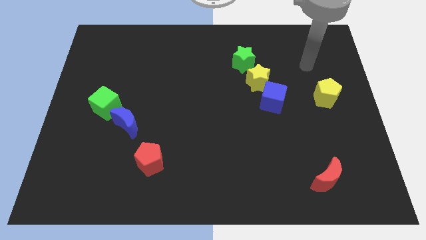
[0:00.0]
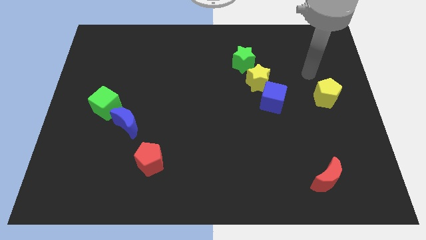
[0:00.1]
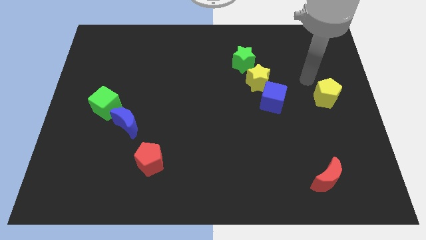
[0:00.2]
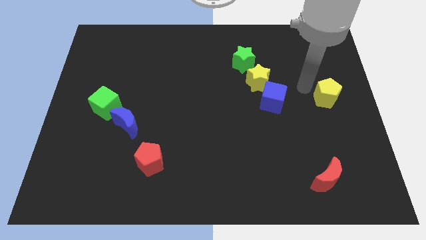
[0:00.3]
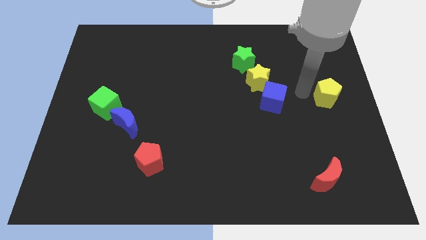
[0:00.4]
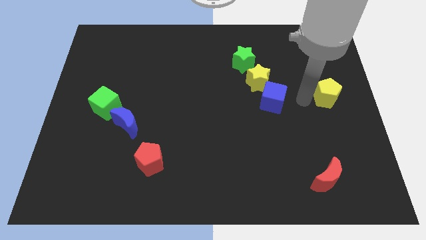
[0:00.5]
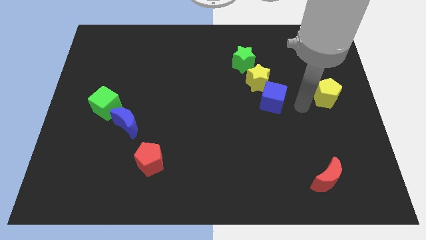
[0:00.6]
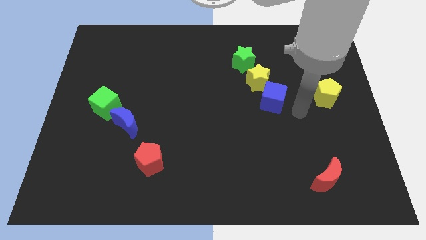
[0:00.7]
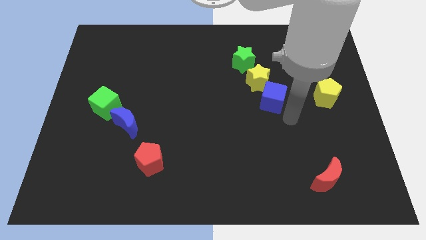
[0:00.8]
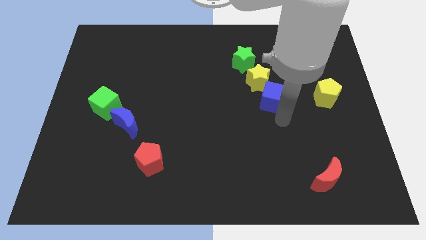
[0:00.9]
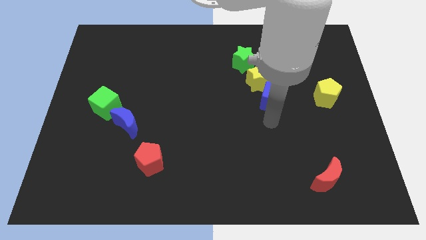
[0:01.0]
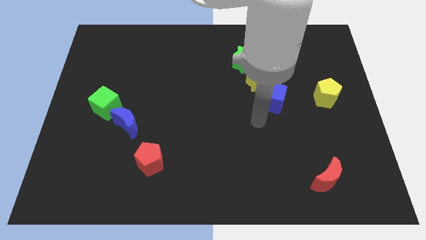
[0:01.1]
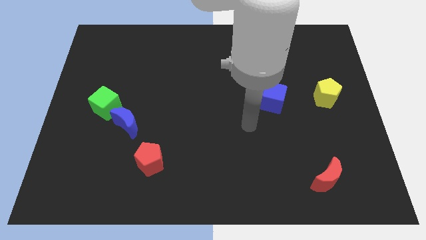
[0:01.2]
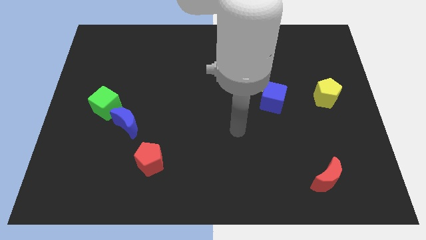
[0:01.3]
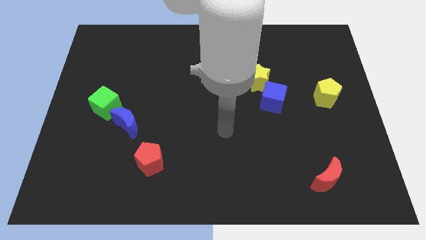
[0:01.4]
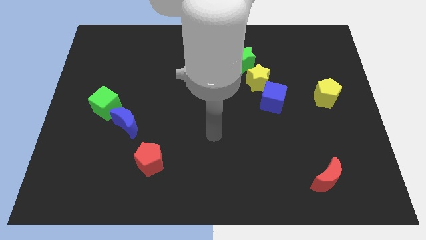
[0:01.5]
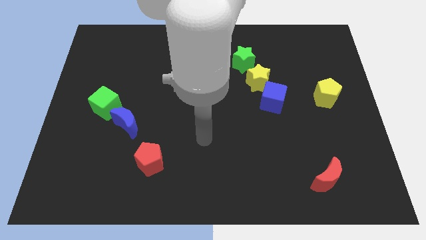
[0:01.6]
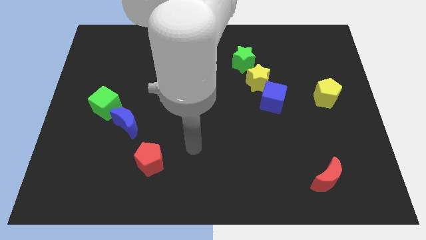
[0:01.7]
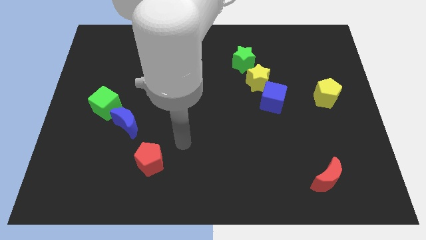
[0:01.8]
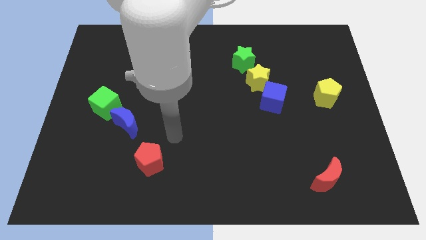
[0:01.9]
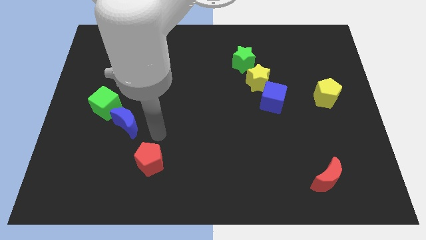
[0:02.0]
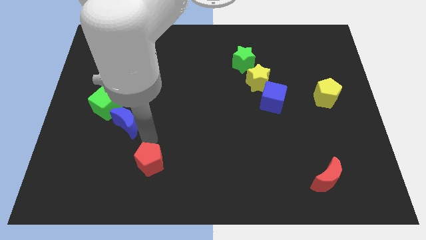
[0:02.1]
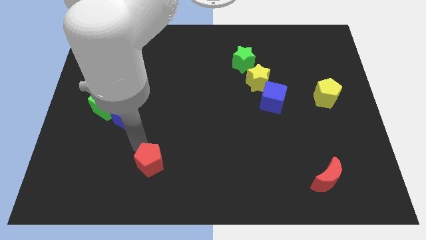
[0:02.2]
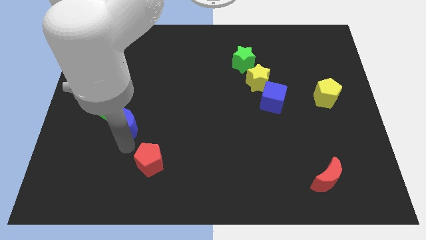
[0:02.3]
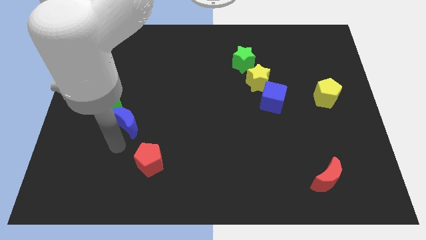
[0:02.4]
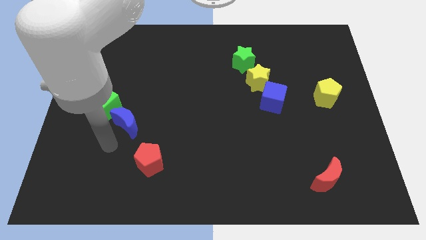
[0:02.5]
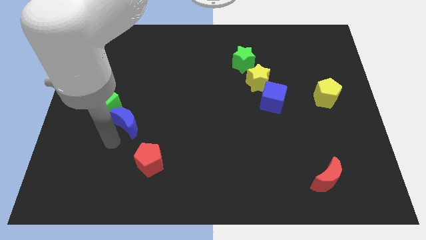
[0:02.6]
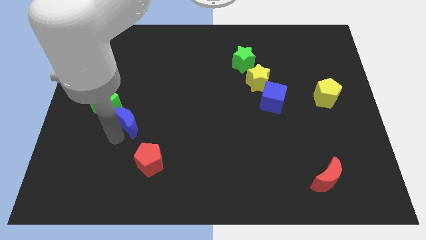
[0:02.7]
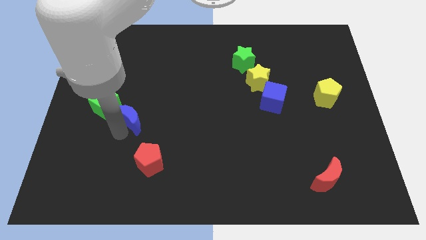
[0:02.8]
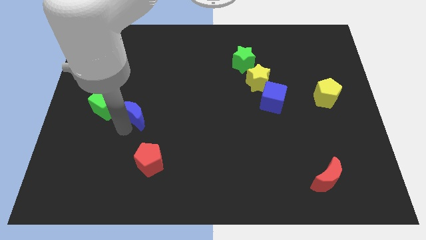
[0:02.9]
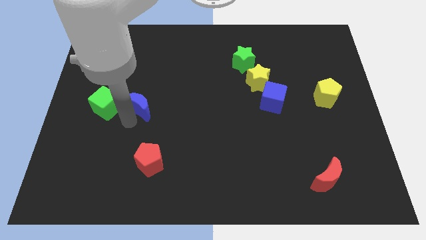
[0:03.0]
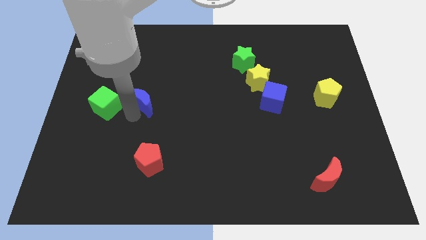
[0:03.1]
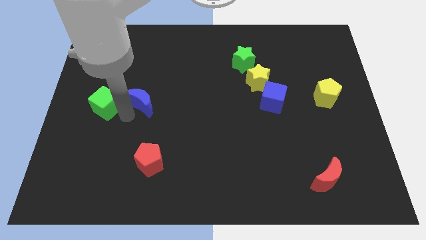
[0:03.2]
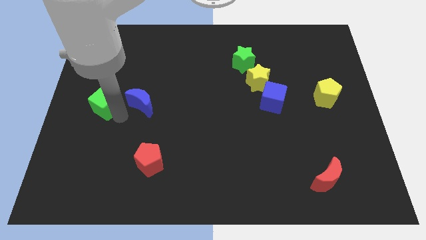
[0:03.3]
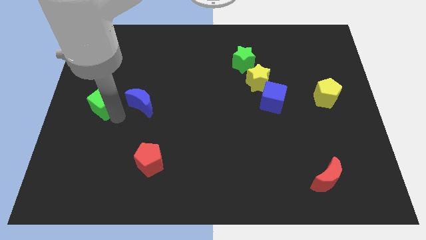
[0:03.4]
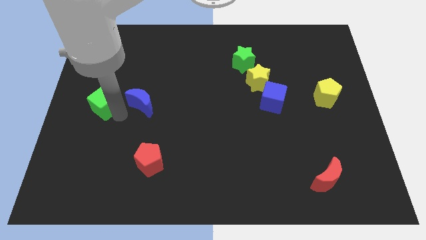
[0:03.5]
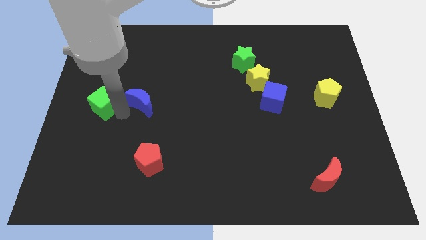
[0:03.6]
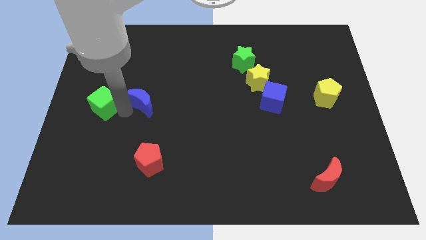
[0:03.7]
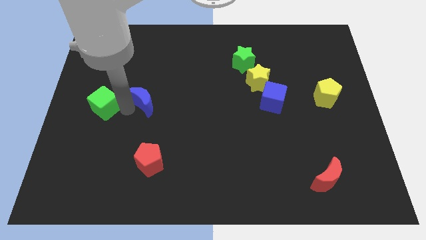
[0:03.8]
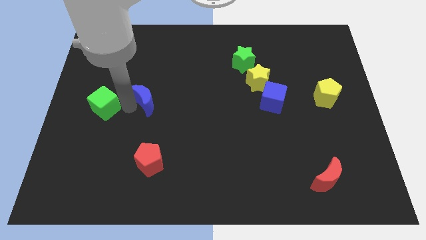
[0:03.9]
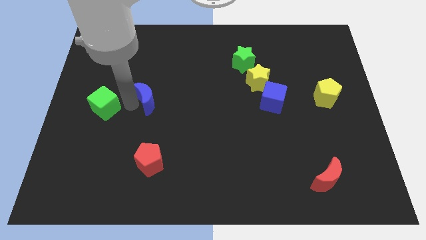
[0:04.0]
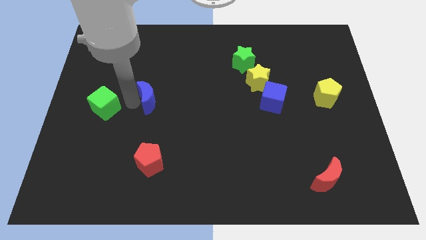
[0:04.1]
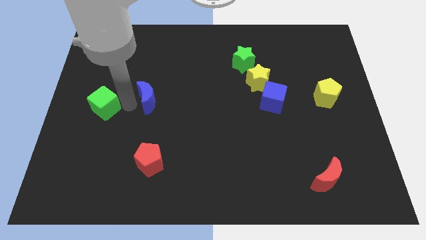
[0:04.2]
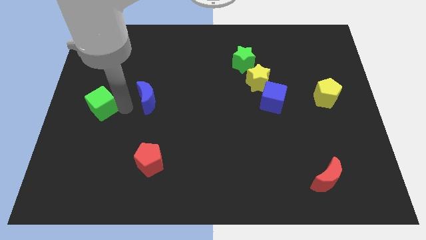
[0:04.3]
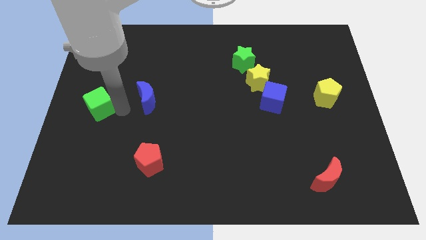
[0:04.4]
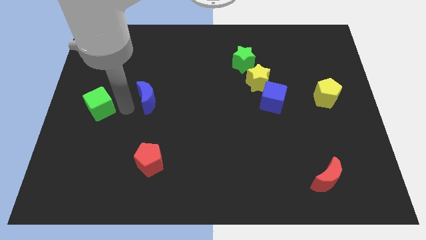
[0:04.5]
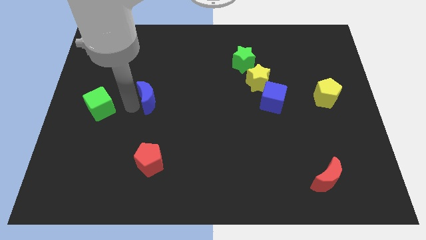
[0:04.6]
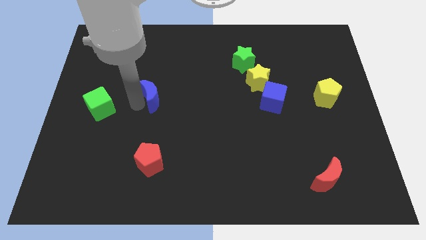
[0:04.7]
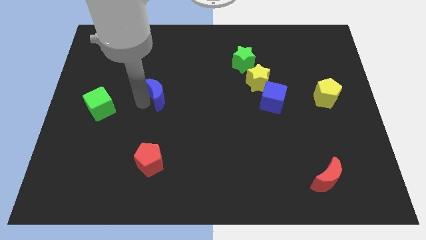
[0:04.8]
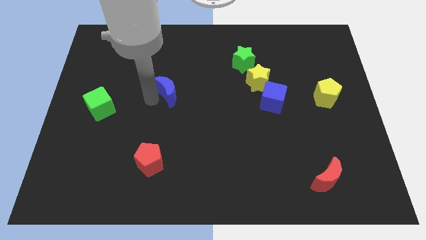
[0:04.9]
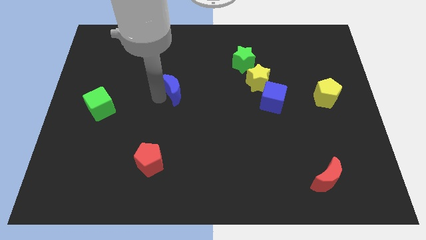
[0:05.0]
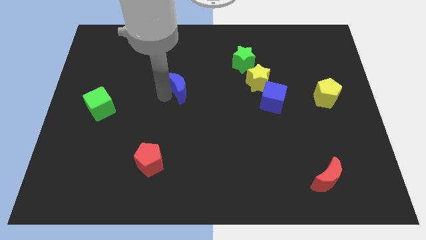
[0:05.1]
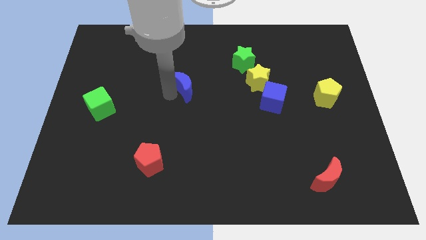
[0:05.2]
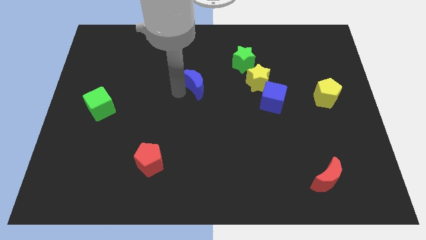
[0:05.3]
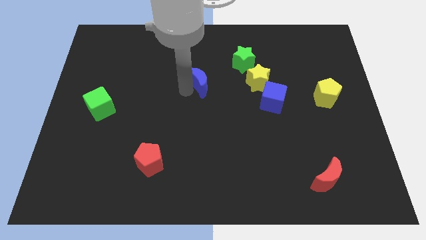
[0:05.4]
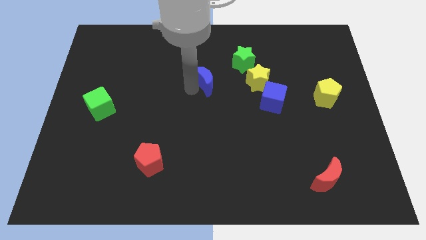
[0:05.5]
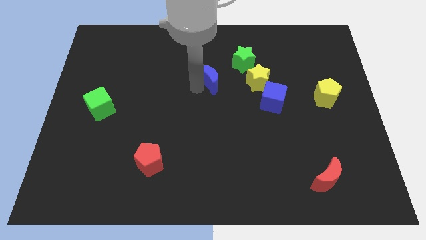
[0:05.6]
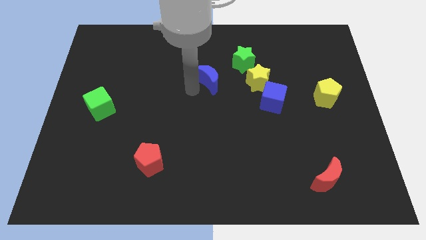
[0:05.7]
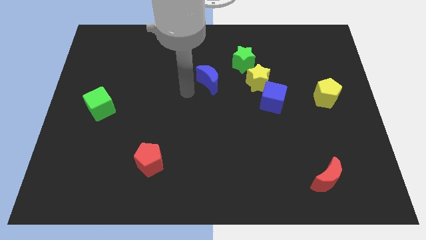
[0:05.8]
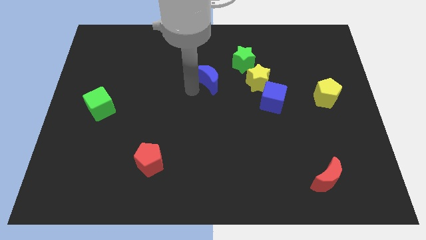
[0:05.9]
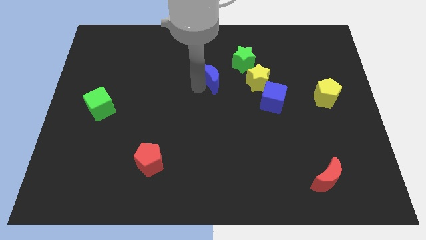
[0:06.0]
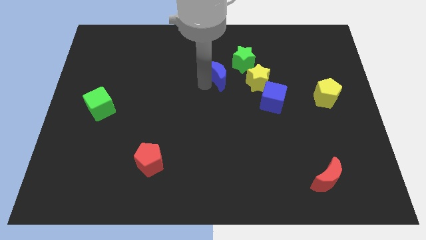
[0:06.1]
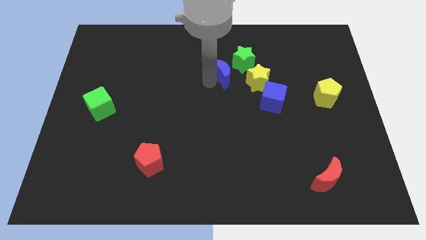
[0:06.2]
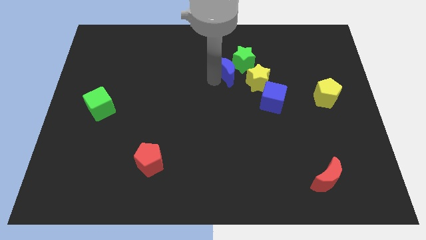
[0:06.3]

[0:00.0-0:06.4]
slide the blue moon next to the green star

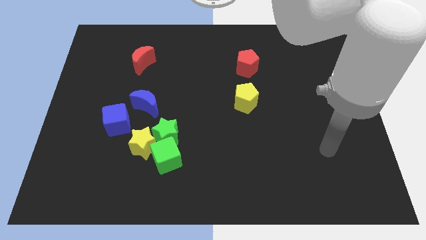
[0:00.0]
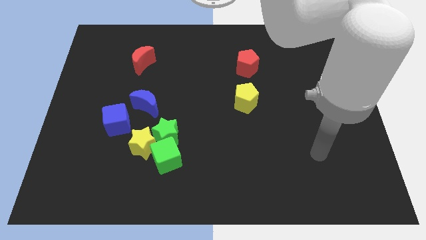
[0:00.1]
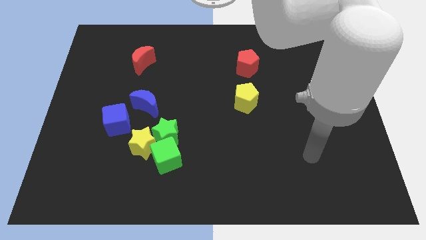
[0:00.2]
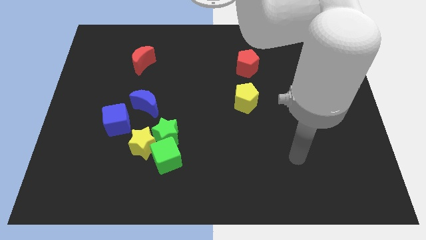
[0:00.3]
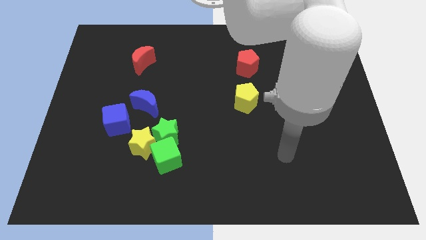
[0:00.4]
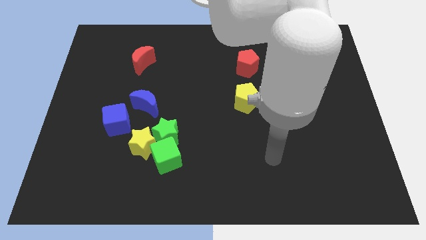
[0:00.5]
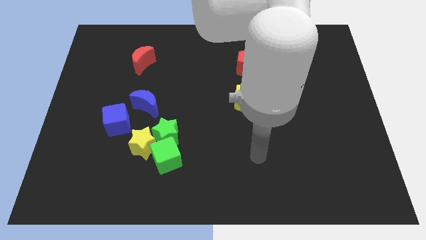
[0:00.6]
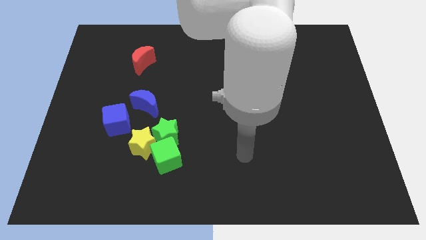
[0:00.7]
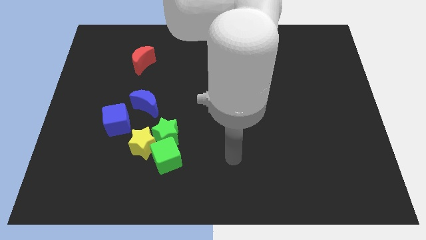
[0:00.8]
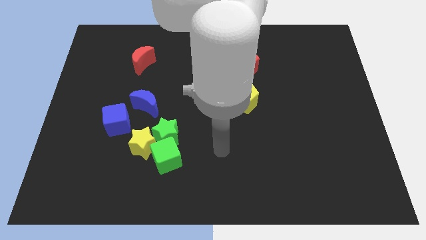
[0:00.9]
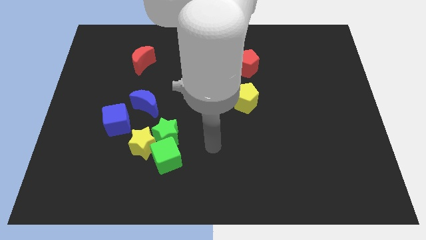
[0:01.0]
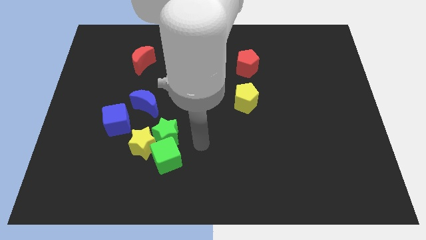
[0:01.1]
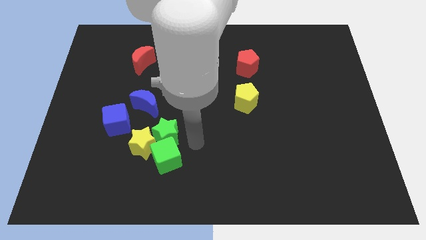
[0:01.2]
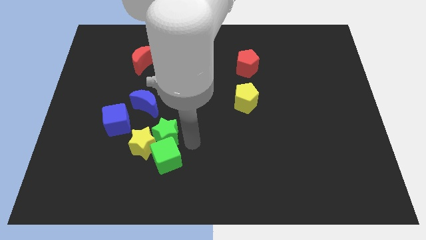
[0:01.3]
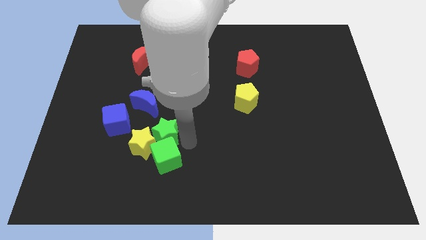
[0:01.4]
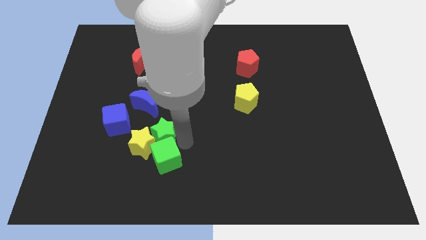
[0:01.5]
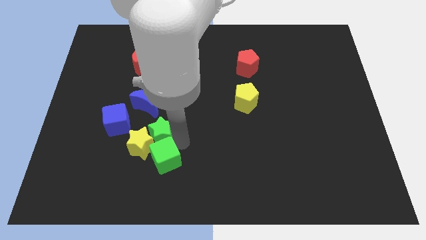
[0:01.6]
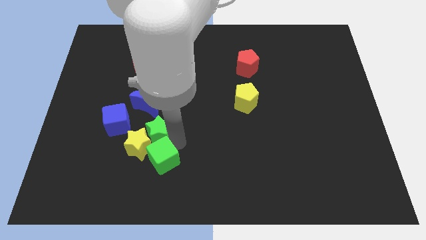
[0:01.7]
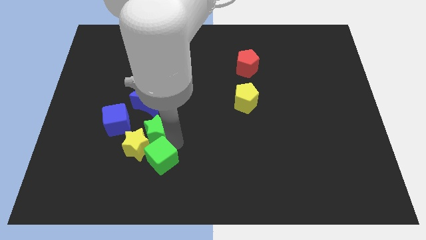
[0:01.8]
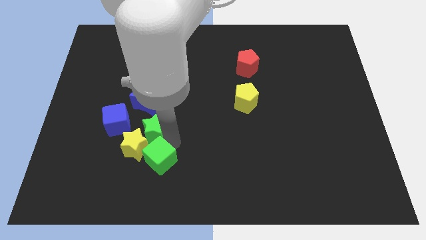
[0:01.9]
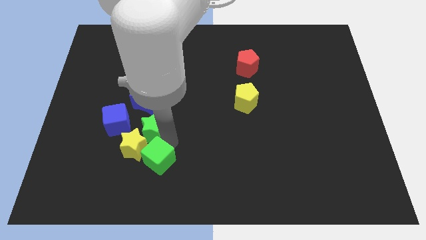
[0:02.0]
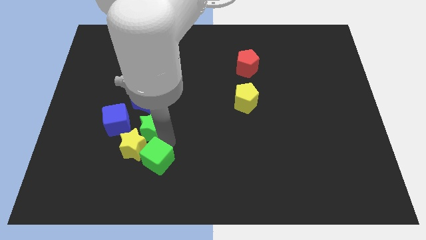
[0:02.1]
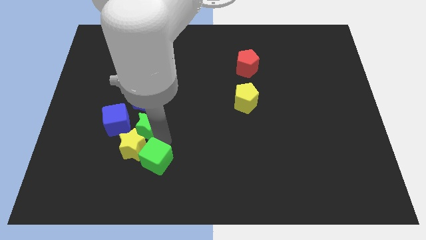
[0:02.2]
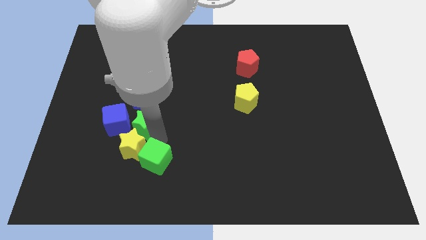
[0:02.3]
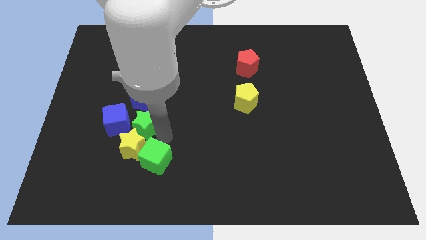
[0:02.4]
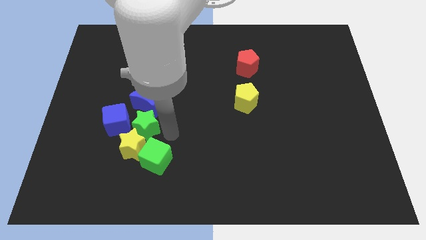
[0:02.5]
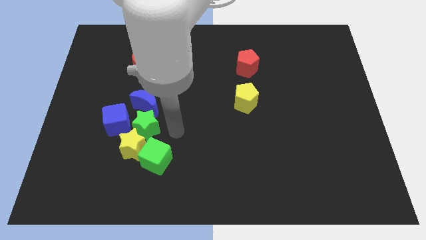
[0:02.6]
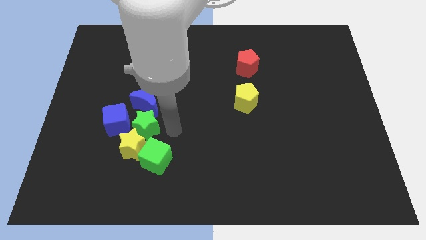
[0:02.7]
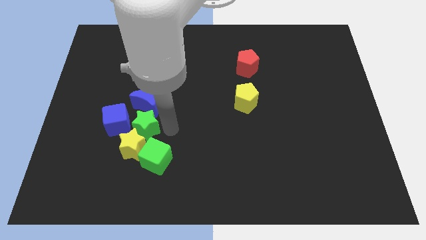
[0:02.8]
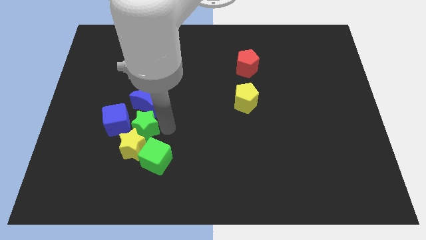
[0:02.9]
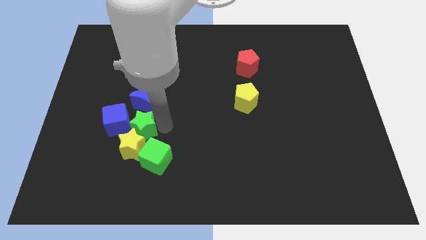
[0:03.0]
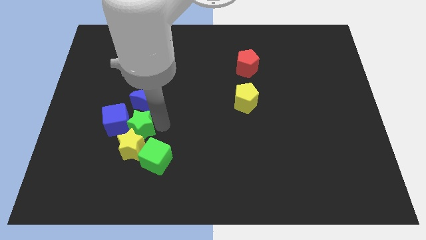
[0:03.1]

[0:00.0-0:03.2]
move the green star close to the blue cube
